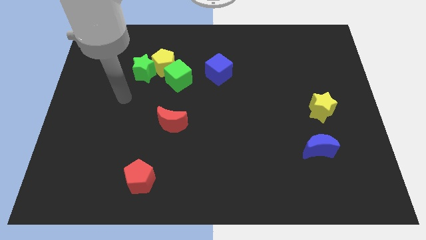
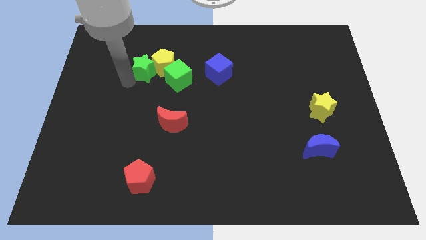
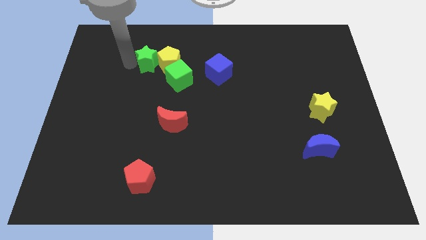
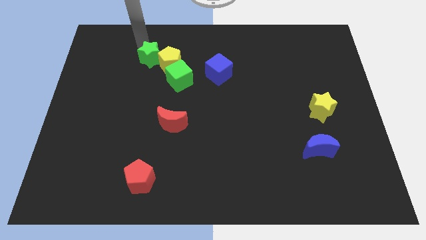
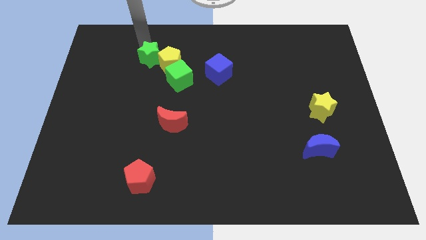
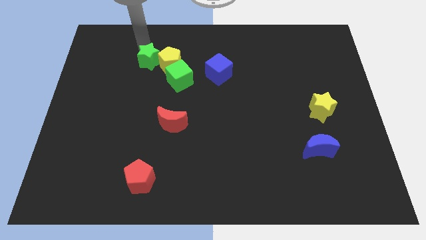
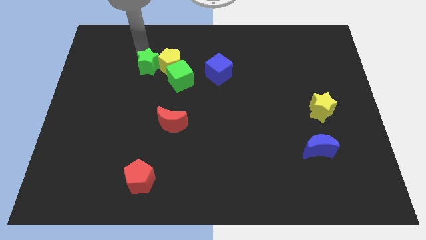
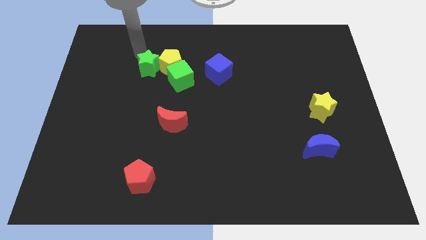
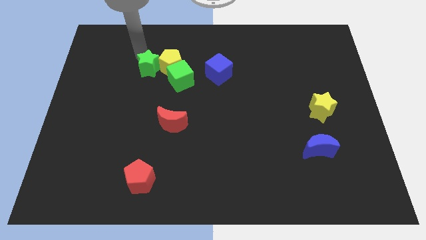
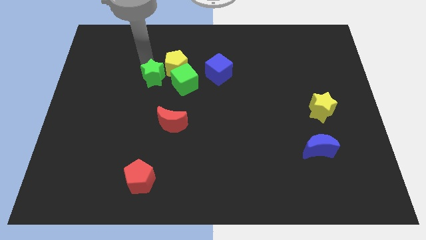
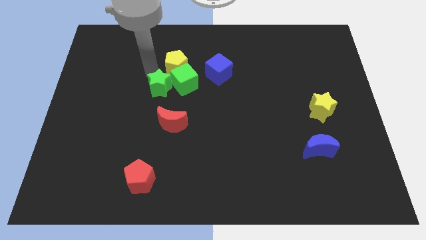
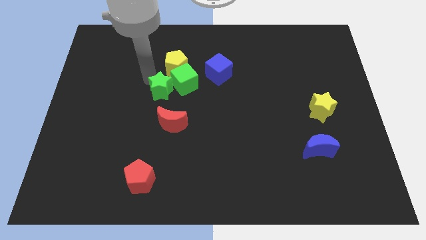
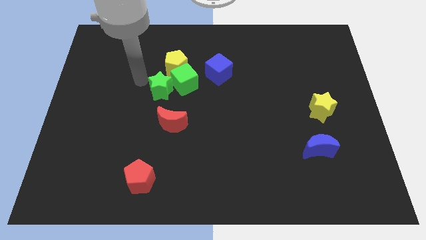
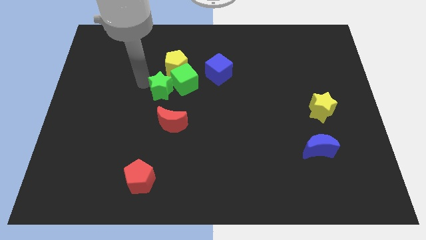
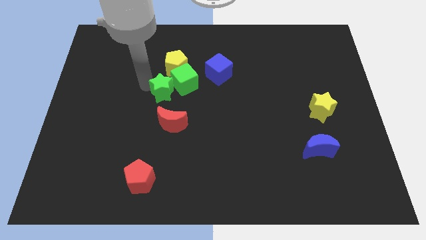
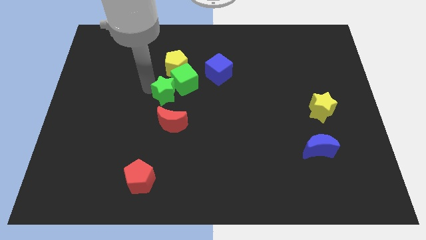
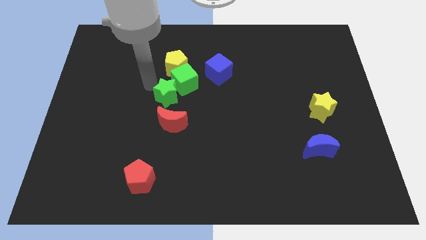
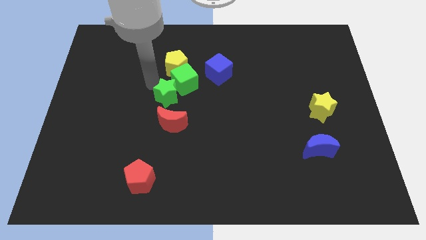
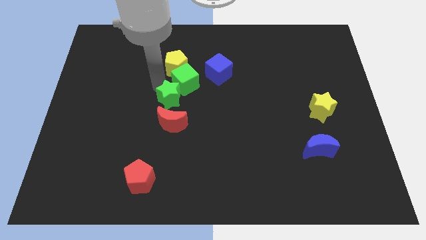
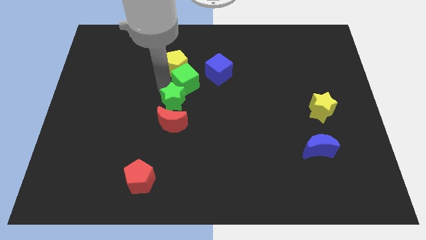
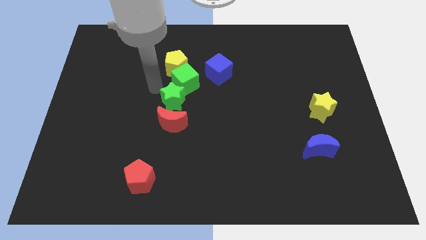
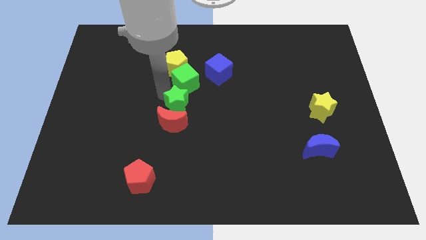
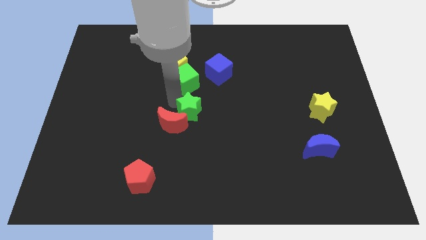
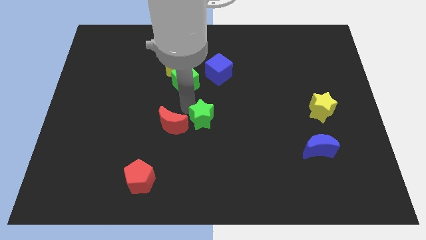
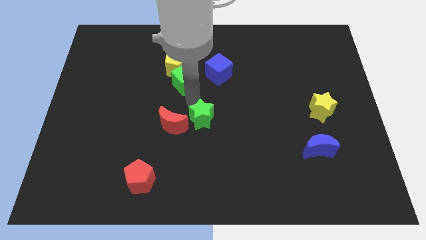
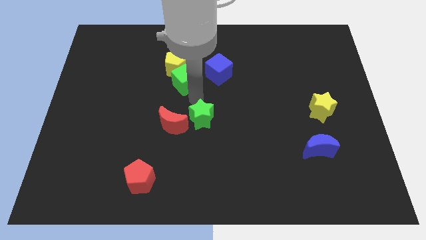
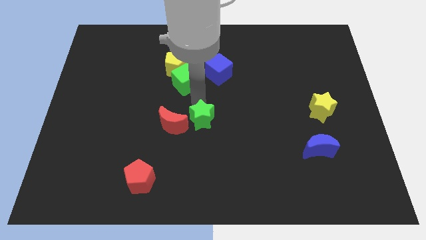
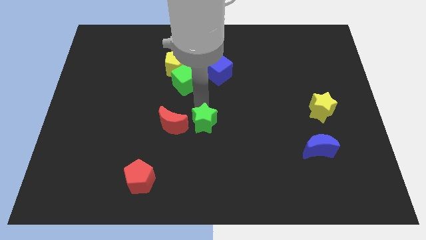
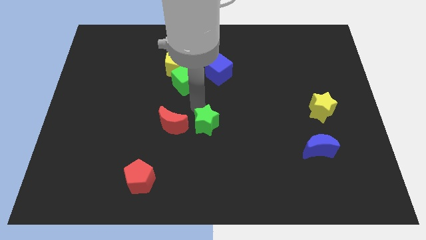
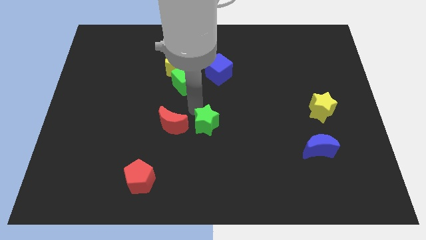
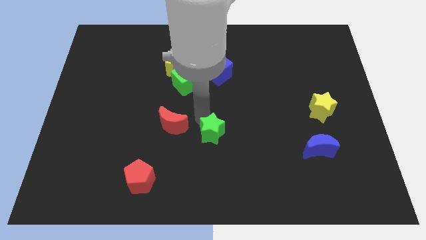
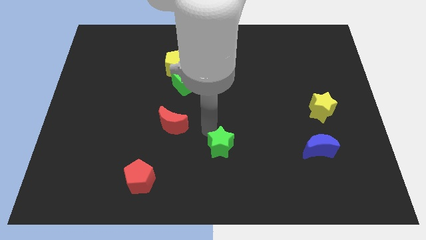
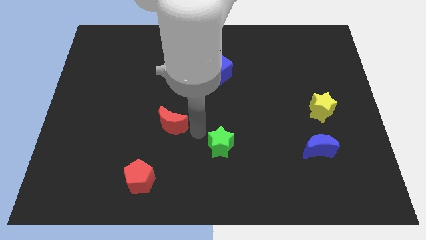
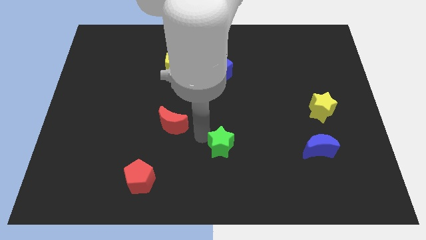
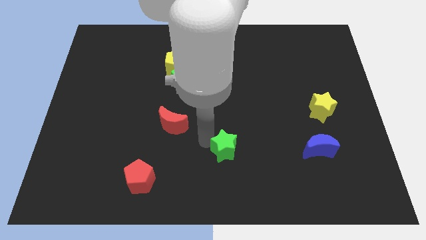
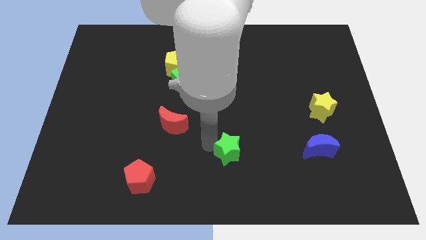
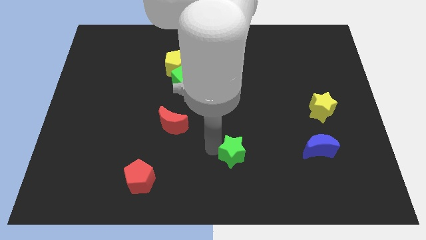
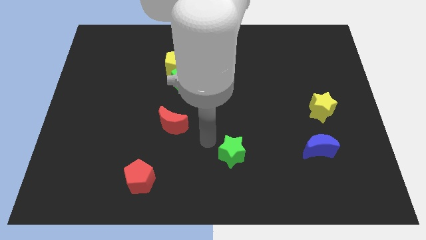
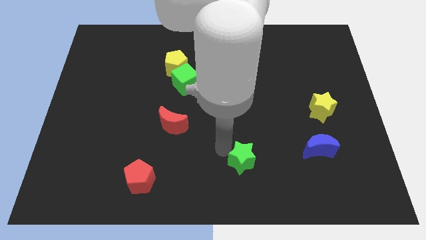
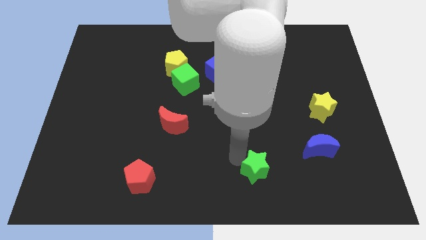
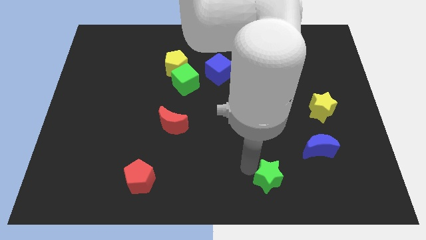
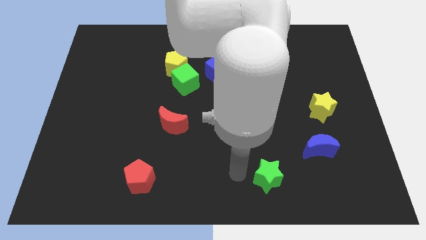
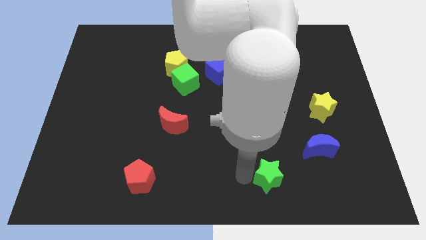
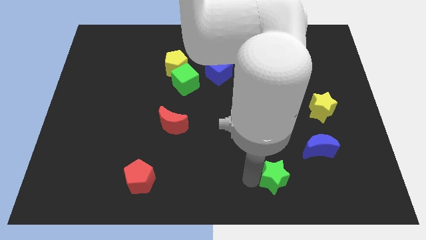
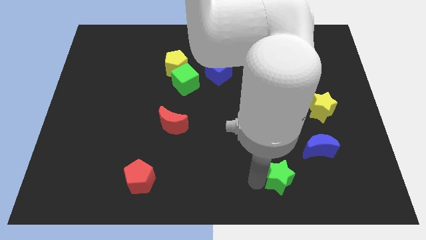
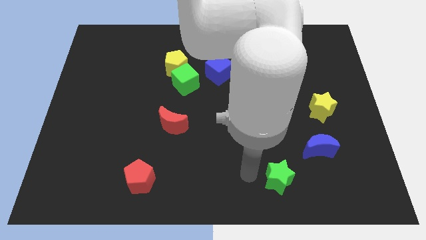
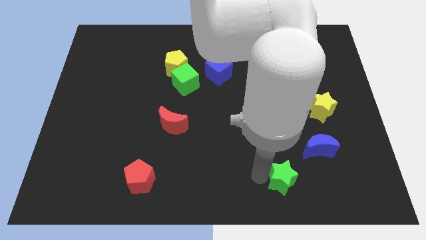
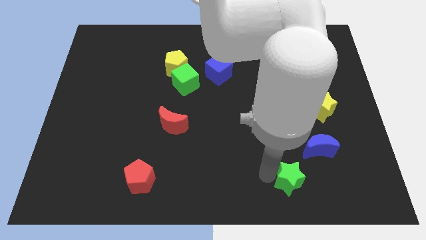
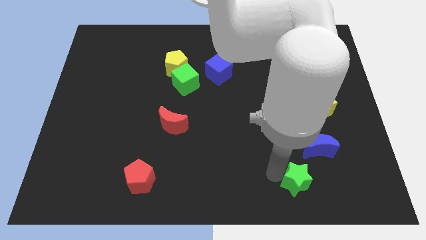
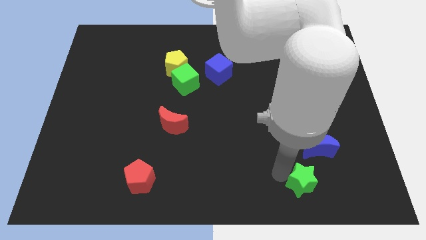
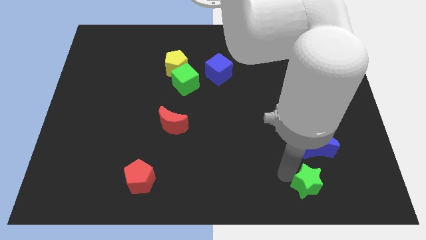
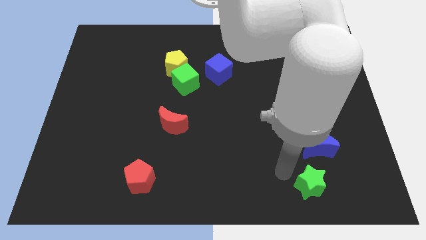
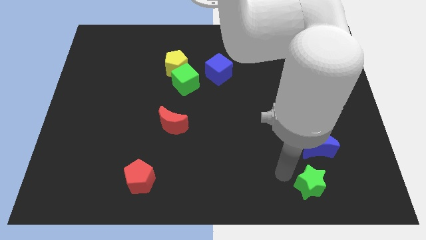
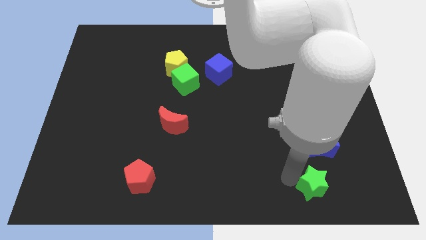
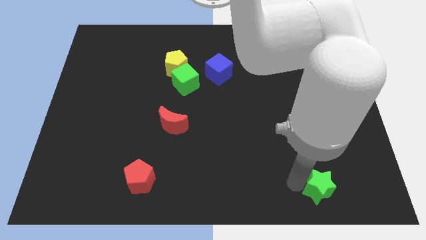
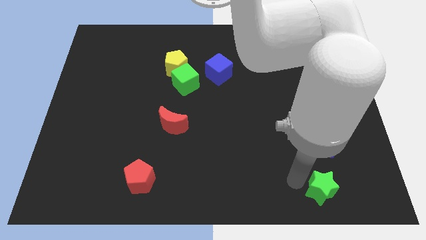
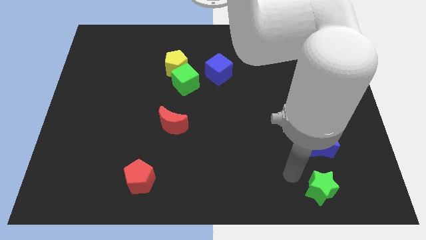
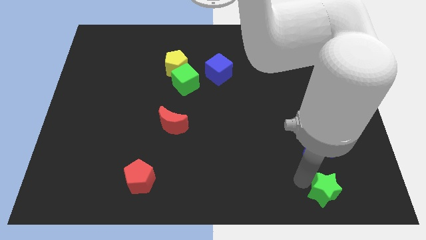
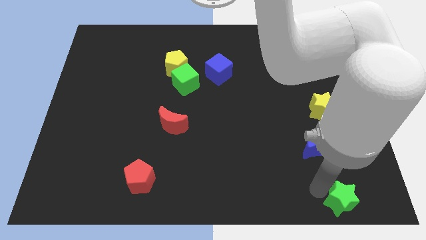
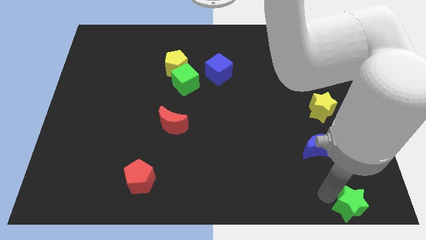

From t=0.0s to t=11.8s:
put the green star to the bottom right
